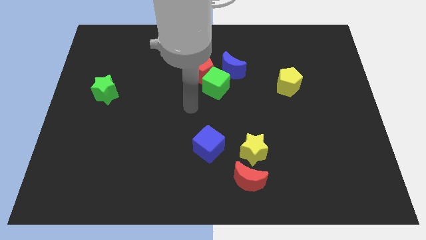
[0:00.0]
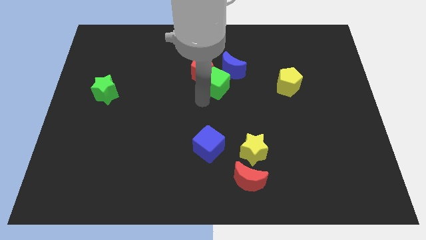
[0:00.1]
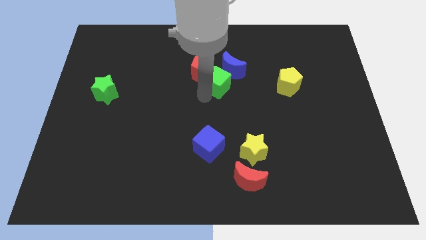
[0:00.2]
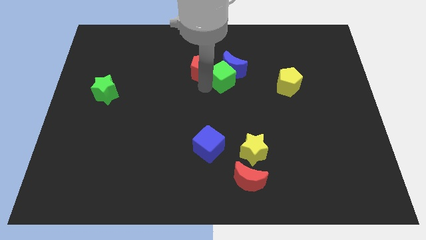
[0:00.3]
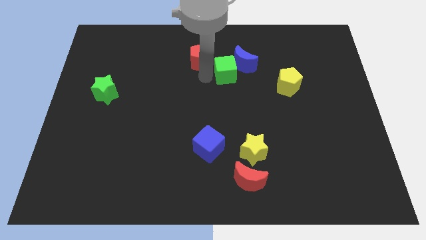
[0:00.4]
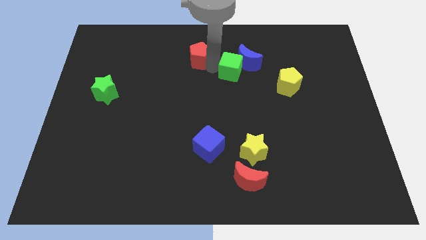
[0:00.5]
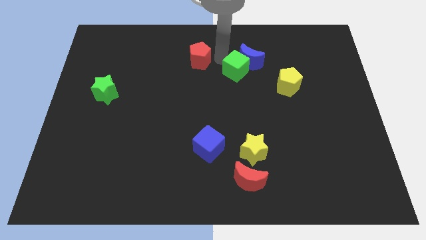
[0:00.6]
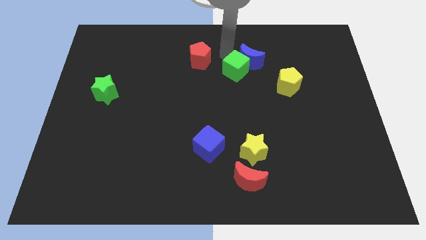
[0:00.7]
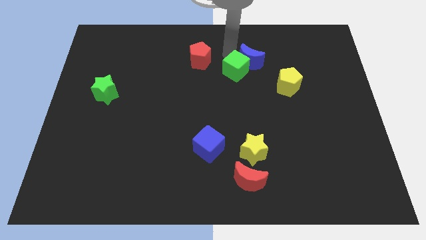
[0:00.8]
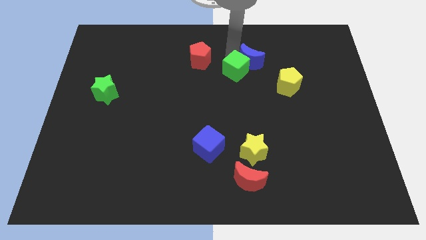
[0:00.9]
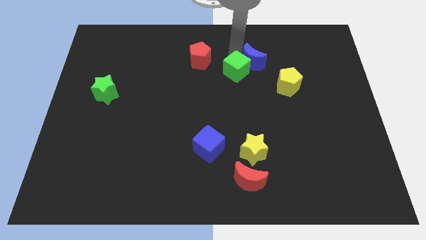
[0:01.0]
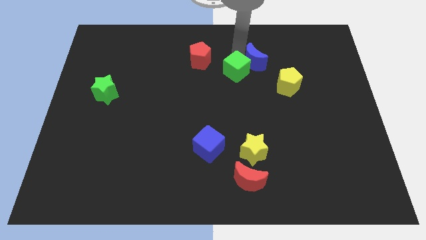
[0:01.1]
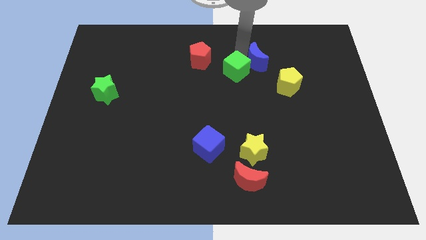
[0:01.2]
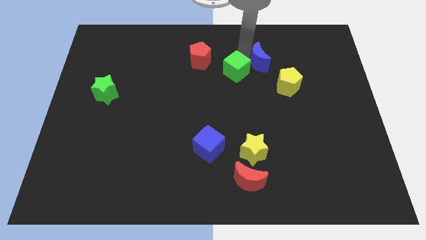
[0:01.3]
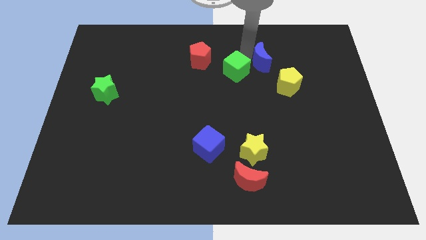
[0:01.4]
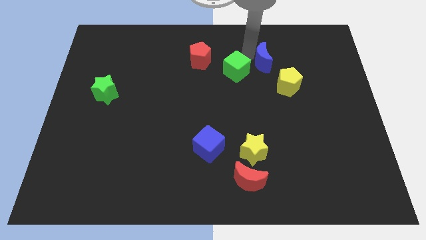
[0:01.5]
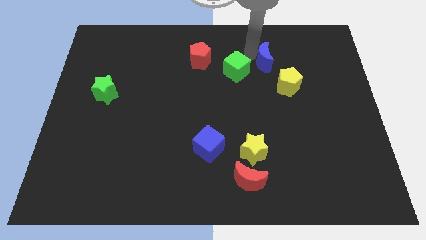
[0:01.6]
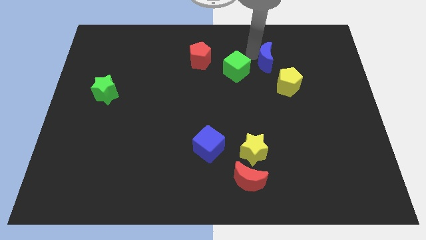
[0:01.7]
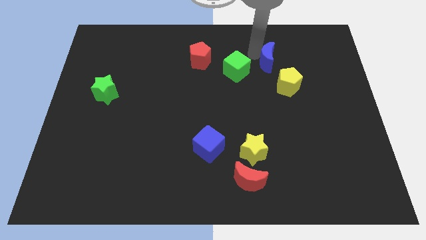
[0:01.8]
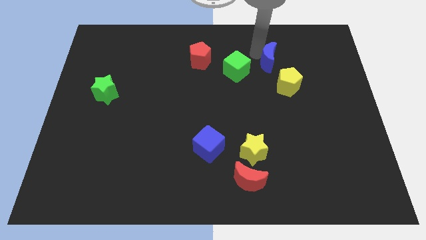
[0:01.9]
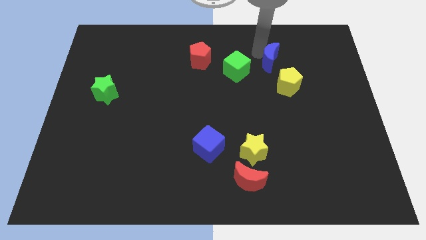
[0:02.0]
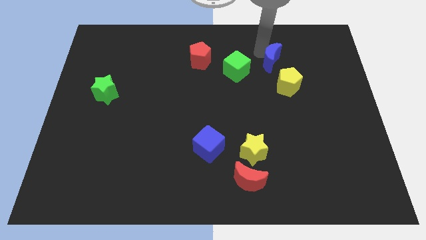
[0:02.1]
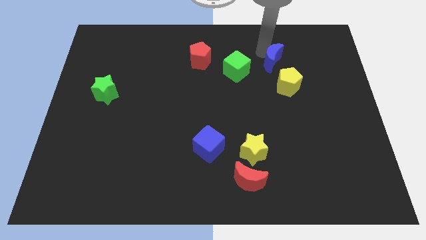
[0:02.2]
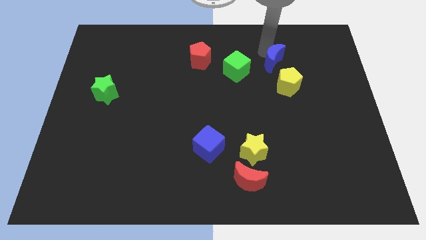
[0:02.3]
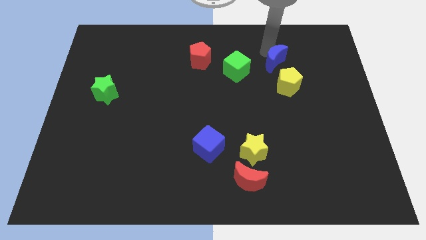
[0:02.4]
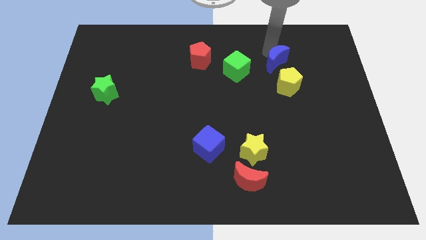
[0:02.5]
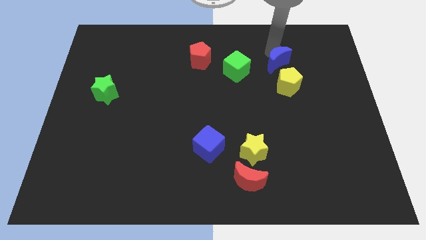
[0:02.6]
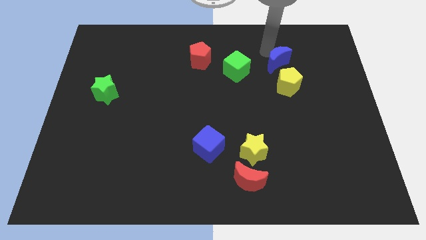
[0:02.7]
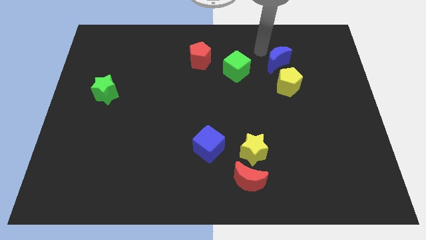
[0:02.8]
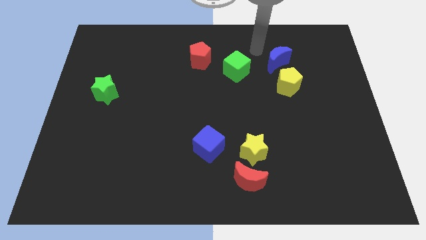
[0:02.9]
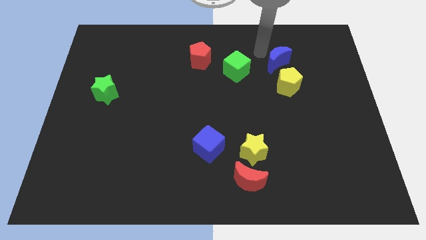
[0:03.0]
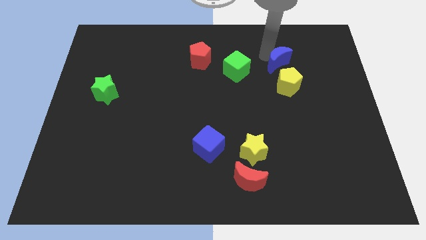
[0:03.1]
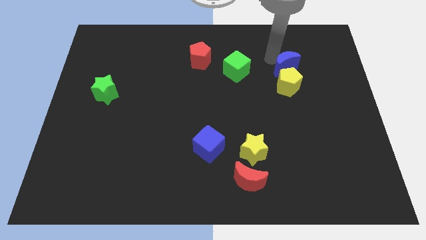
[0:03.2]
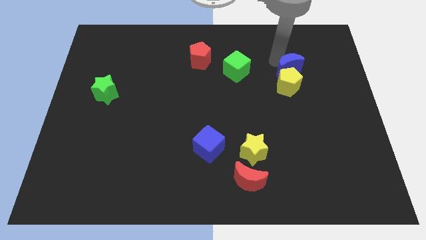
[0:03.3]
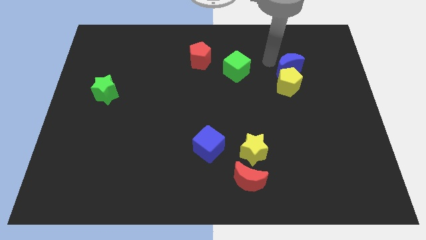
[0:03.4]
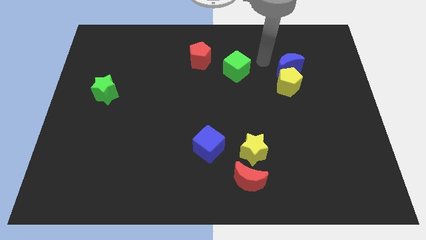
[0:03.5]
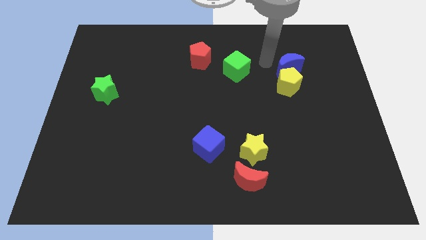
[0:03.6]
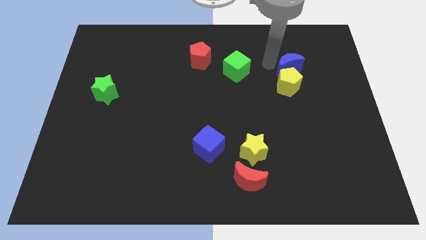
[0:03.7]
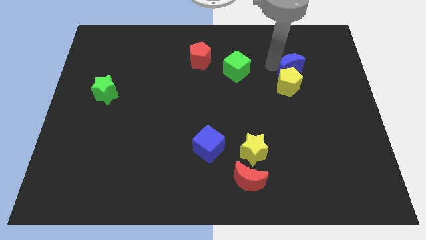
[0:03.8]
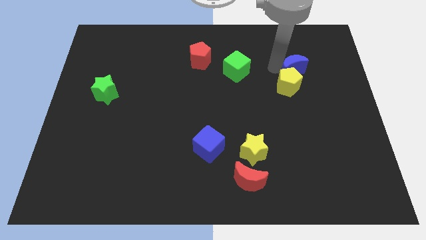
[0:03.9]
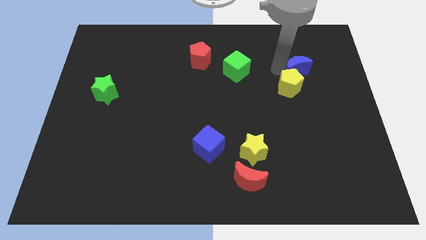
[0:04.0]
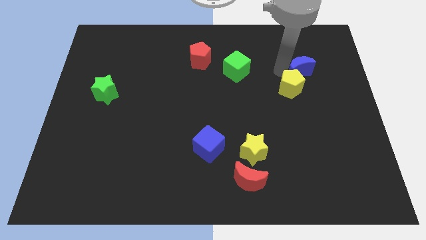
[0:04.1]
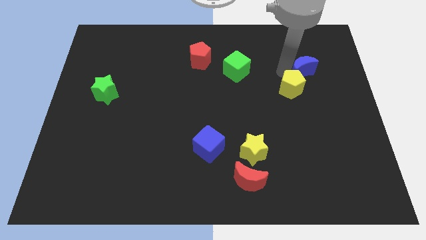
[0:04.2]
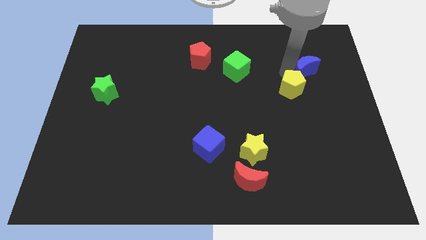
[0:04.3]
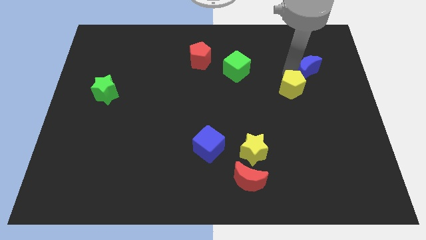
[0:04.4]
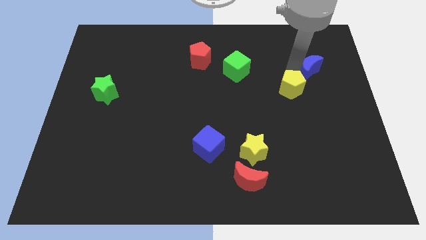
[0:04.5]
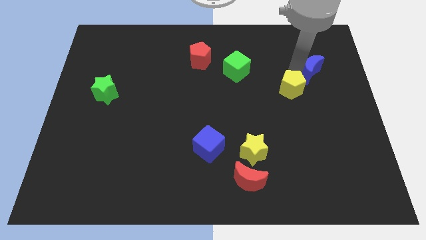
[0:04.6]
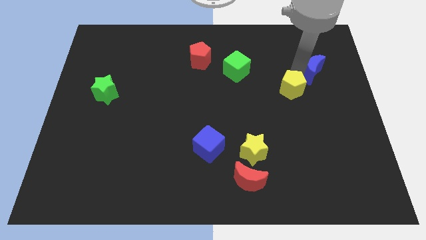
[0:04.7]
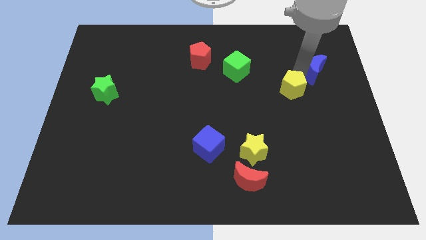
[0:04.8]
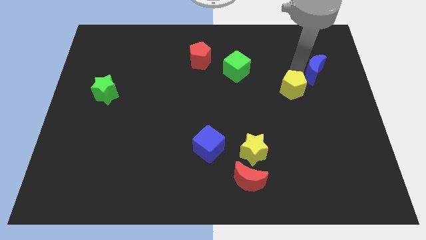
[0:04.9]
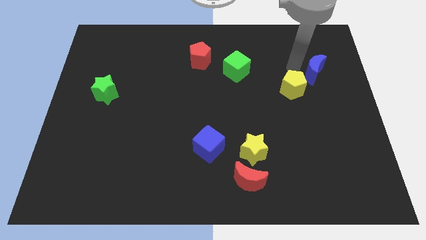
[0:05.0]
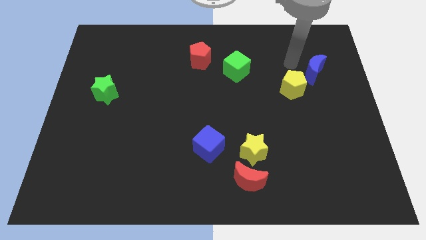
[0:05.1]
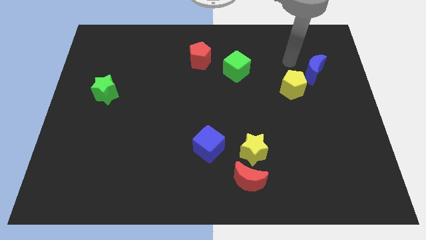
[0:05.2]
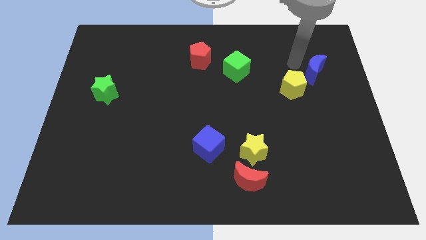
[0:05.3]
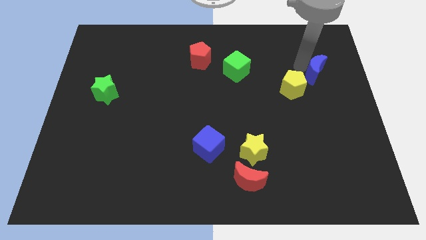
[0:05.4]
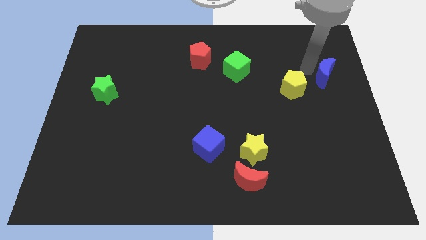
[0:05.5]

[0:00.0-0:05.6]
slide the blue moon to the right side of the board

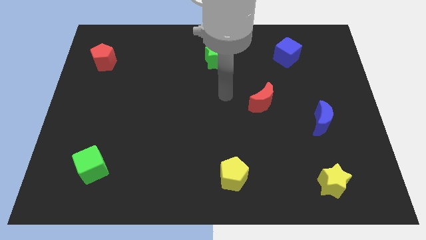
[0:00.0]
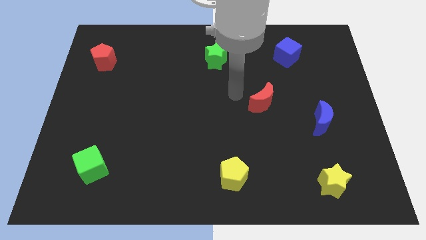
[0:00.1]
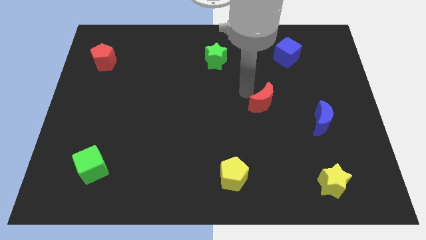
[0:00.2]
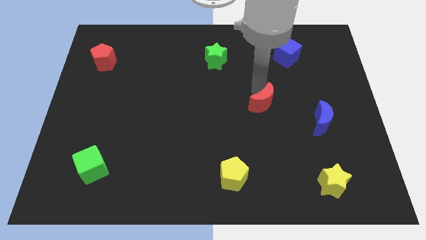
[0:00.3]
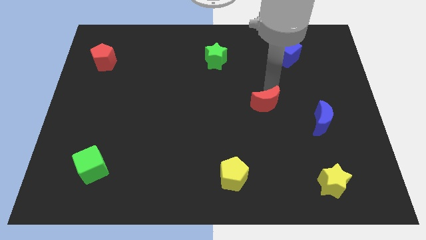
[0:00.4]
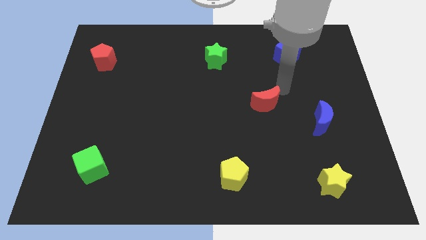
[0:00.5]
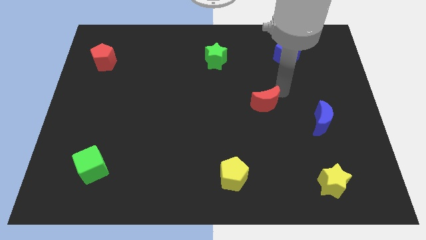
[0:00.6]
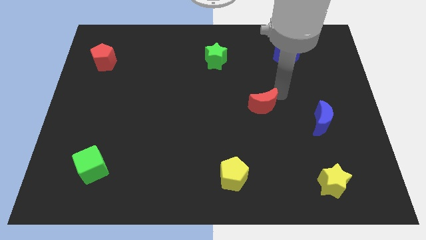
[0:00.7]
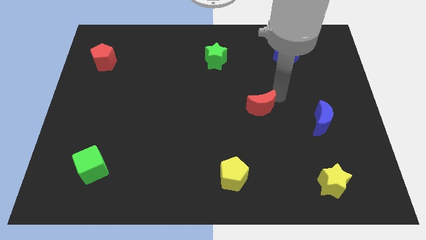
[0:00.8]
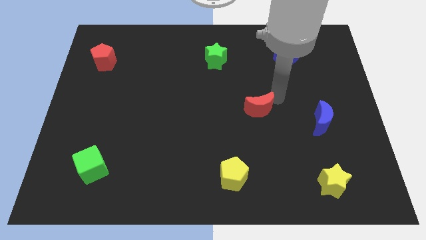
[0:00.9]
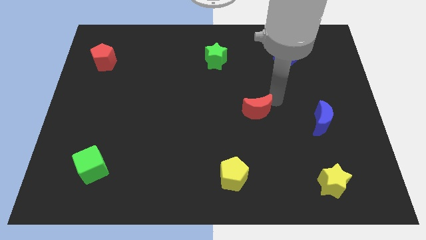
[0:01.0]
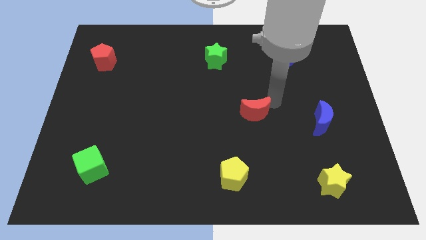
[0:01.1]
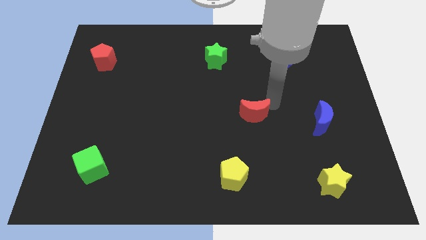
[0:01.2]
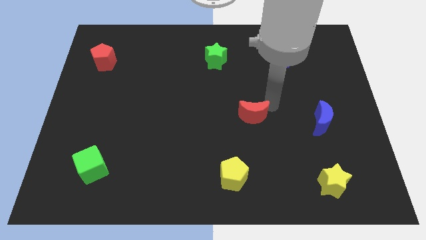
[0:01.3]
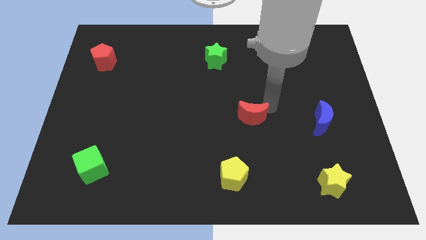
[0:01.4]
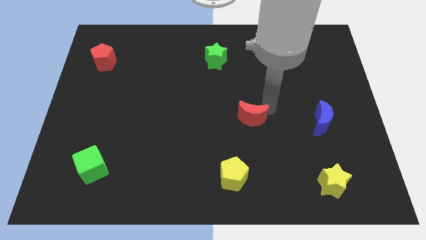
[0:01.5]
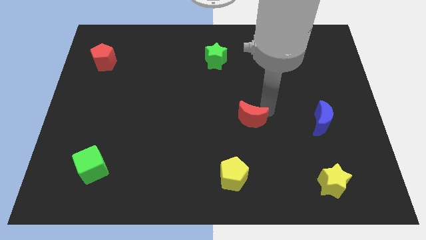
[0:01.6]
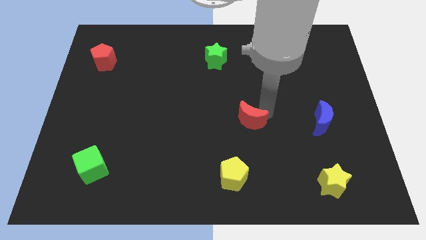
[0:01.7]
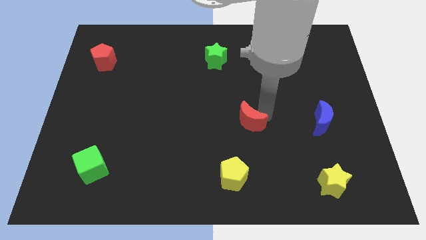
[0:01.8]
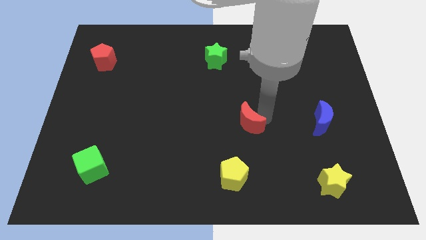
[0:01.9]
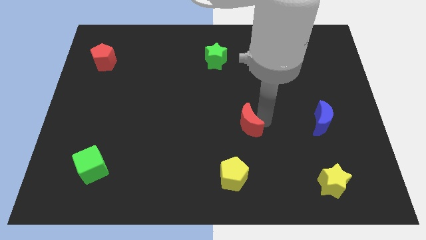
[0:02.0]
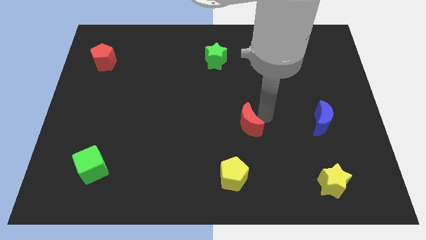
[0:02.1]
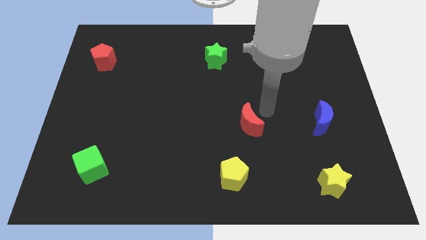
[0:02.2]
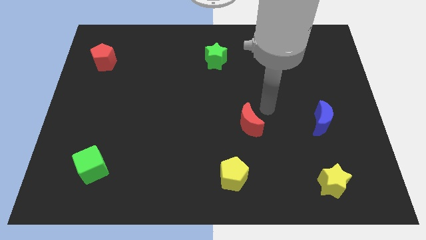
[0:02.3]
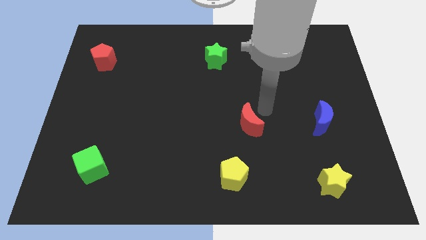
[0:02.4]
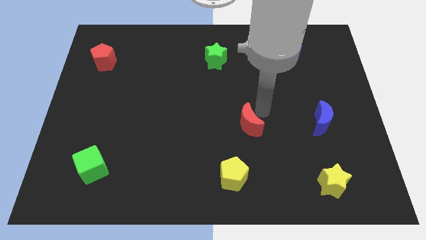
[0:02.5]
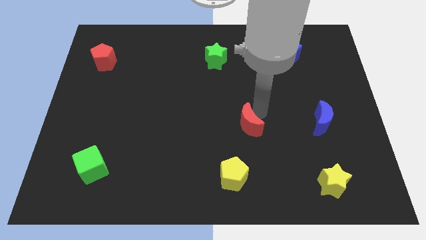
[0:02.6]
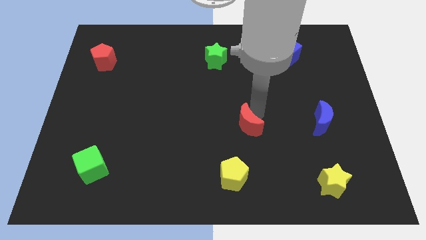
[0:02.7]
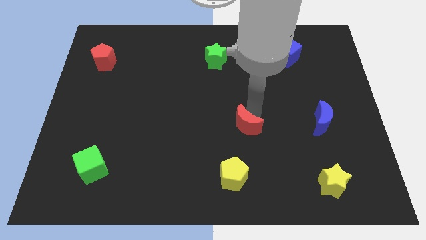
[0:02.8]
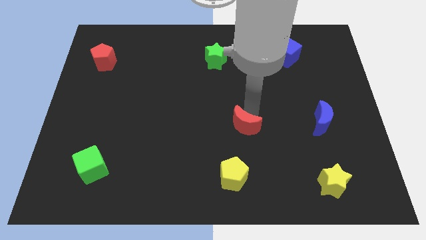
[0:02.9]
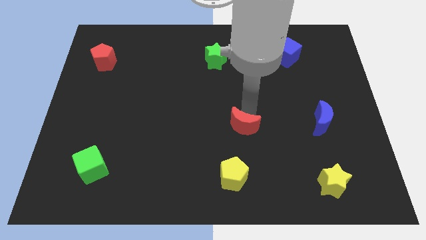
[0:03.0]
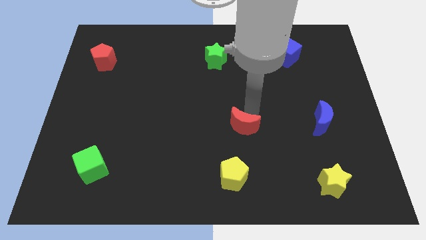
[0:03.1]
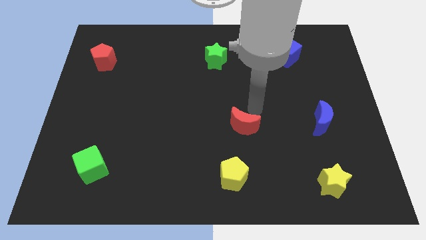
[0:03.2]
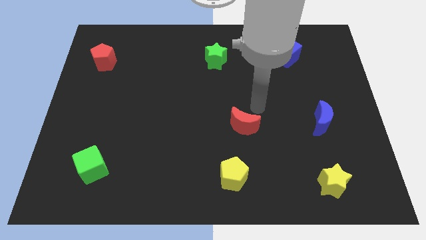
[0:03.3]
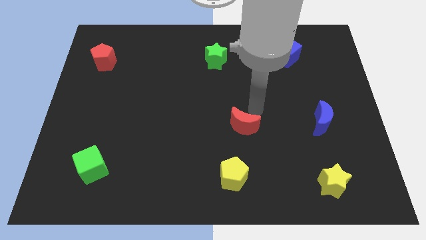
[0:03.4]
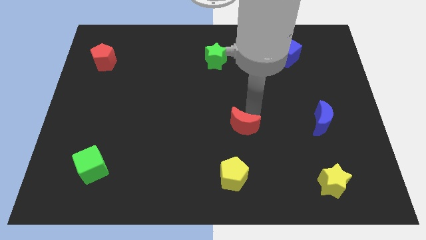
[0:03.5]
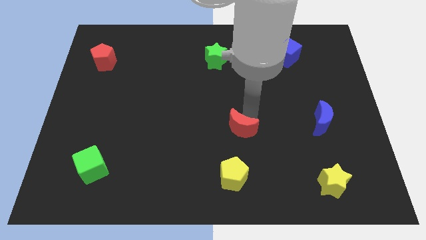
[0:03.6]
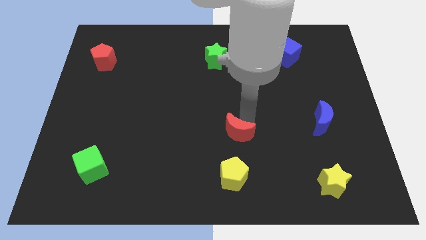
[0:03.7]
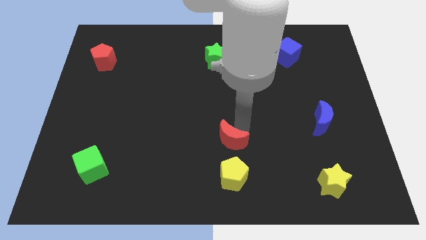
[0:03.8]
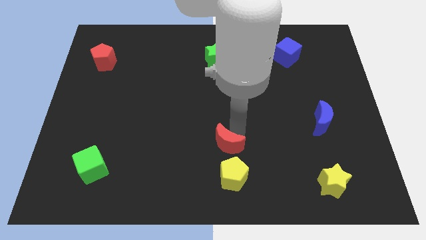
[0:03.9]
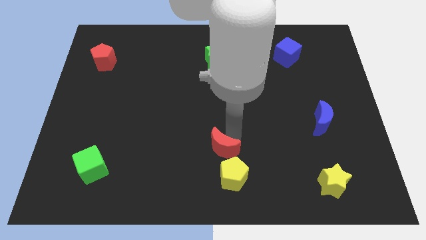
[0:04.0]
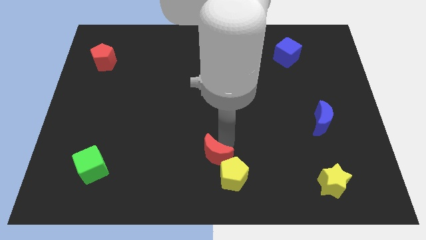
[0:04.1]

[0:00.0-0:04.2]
move the red moon to the bottom side
